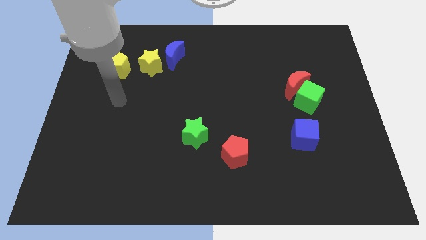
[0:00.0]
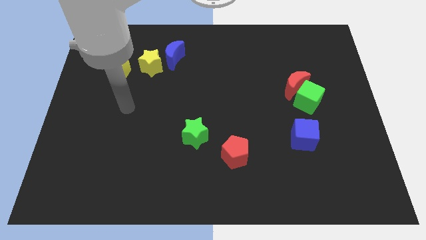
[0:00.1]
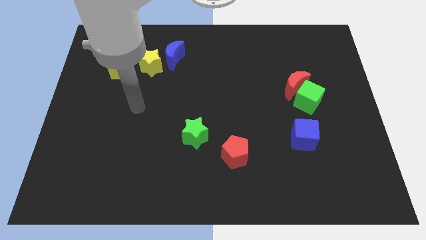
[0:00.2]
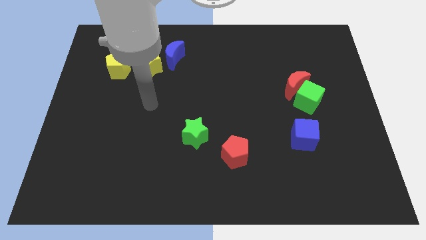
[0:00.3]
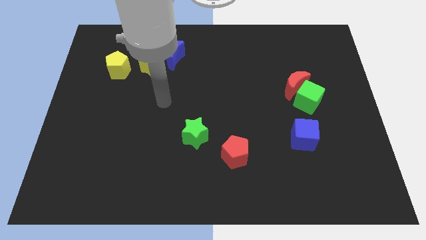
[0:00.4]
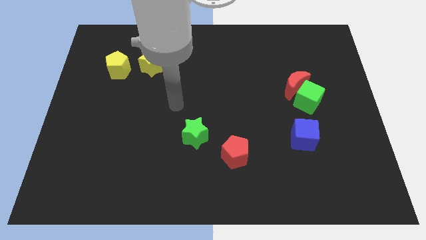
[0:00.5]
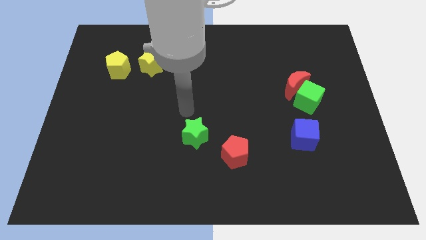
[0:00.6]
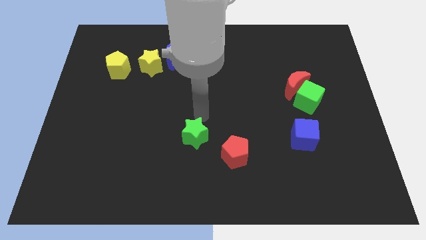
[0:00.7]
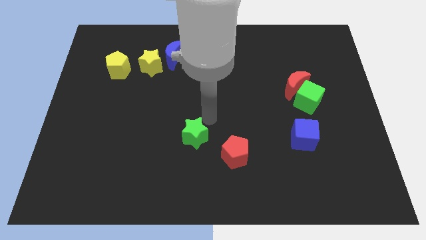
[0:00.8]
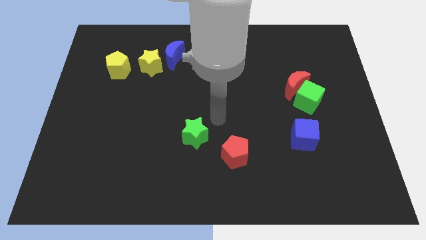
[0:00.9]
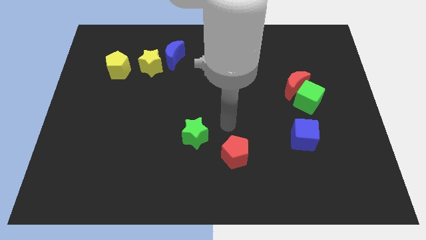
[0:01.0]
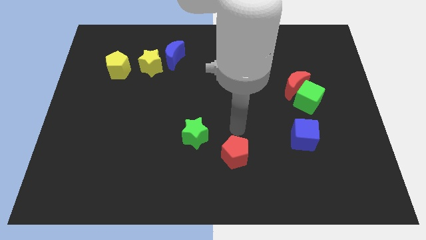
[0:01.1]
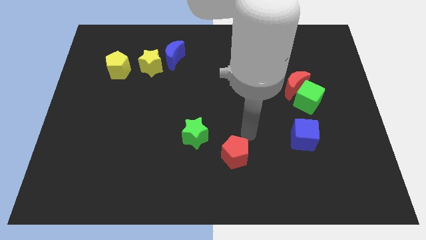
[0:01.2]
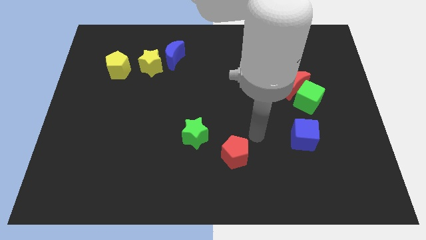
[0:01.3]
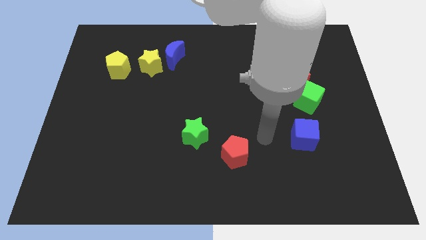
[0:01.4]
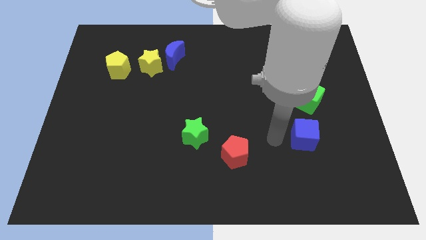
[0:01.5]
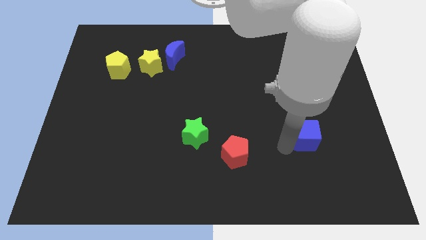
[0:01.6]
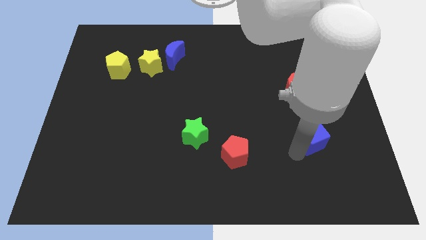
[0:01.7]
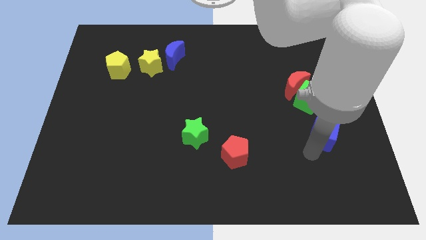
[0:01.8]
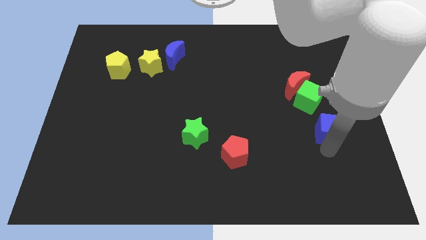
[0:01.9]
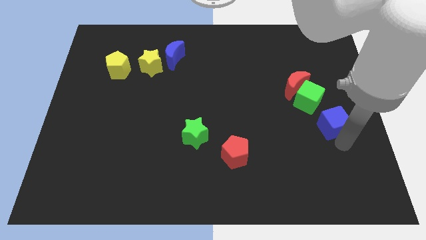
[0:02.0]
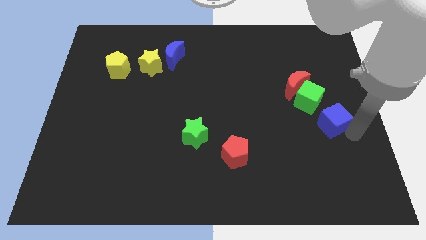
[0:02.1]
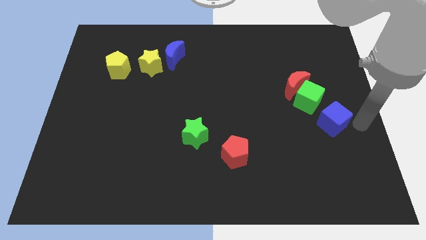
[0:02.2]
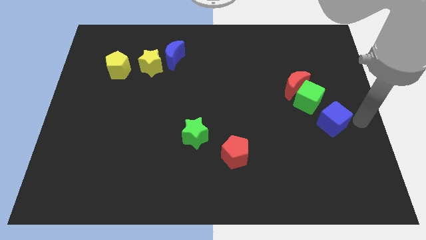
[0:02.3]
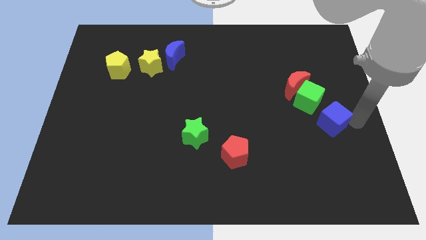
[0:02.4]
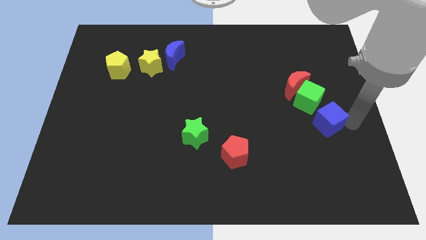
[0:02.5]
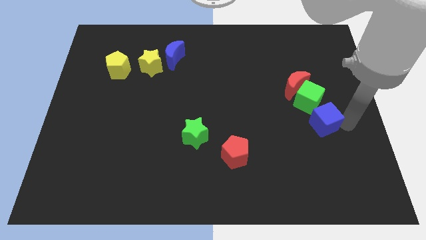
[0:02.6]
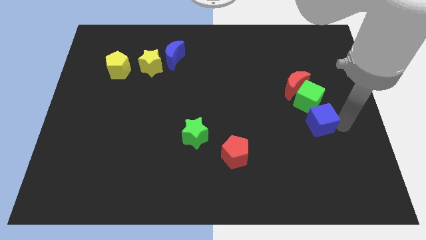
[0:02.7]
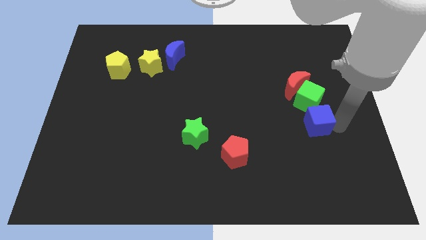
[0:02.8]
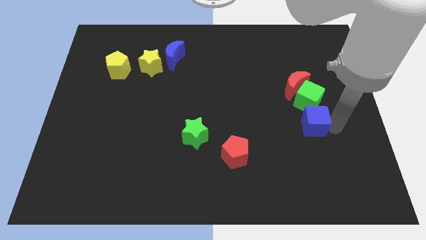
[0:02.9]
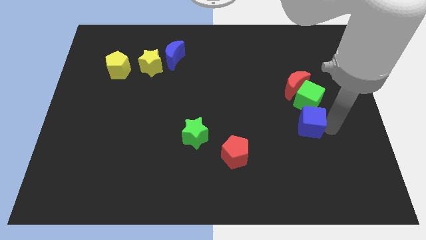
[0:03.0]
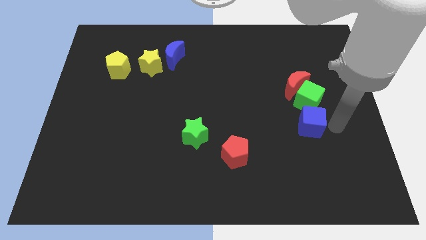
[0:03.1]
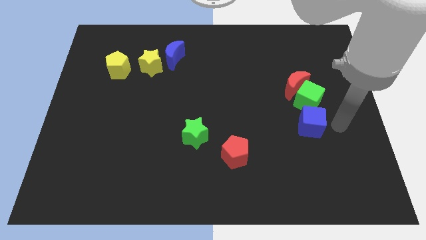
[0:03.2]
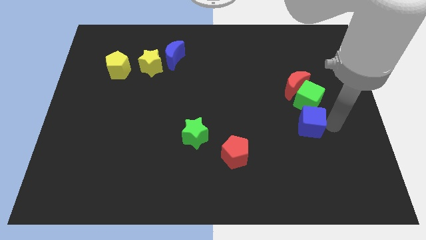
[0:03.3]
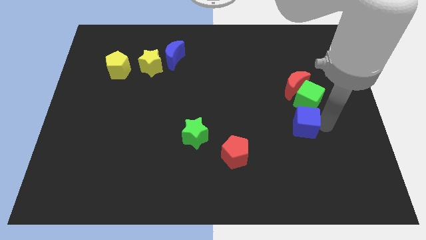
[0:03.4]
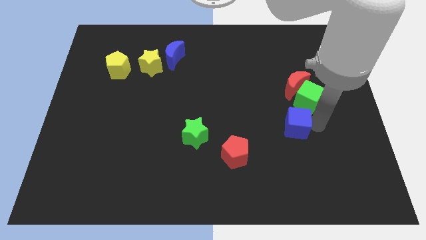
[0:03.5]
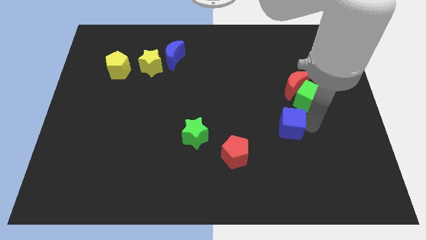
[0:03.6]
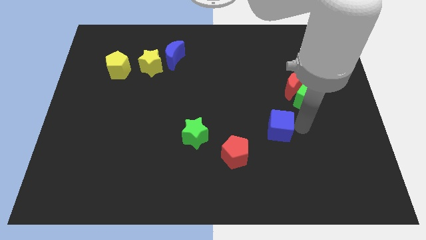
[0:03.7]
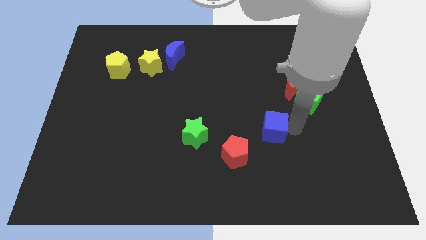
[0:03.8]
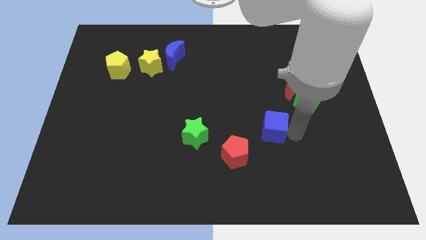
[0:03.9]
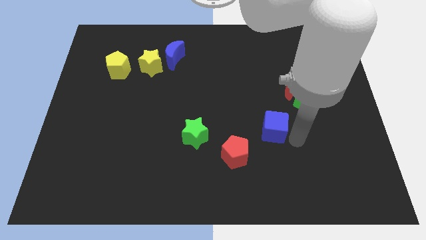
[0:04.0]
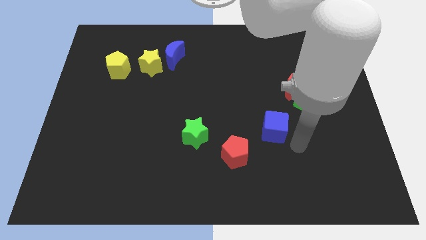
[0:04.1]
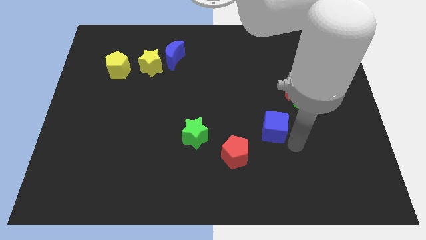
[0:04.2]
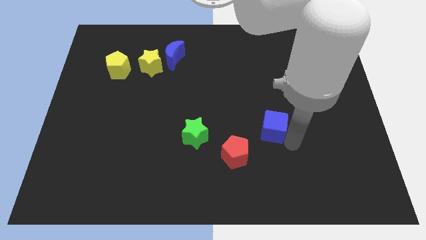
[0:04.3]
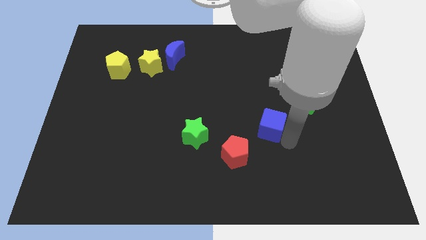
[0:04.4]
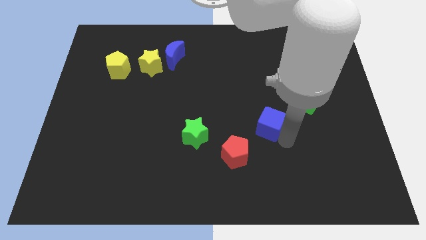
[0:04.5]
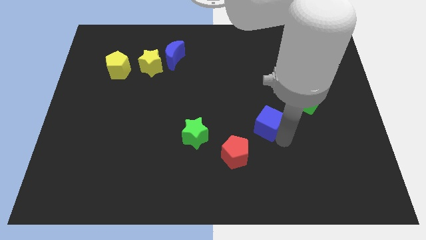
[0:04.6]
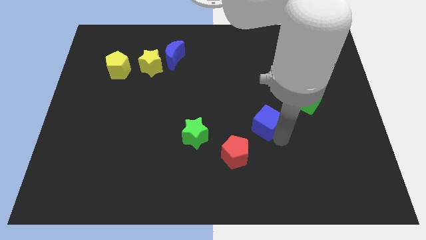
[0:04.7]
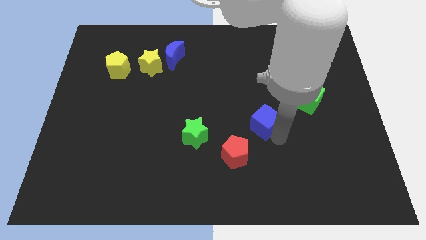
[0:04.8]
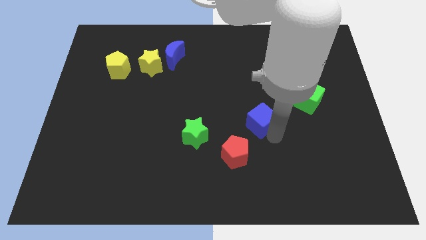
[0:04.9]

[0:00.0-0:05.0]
move the blue cube to the center

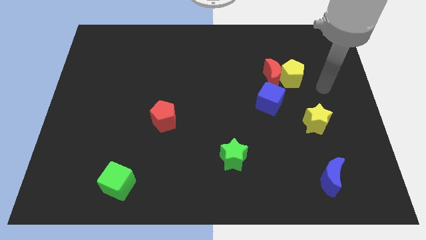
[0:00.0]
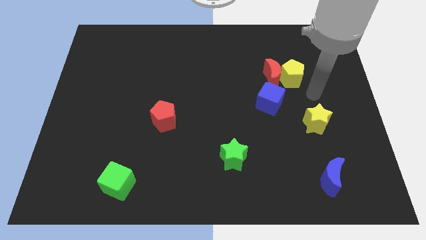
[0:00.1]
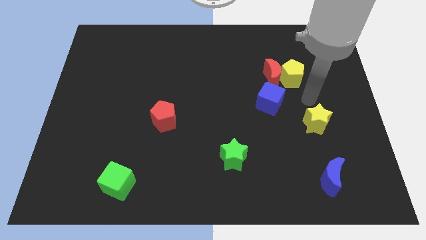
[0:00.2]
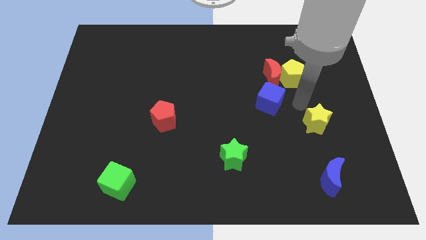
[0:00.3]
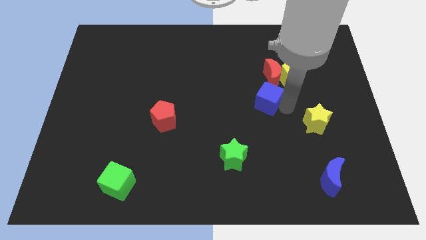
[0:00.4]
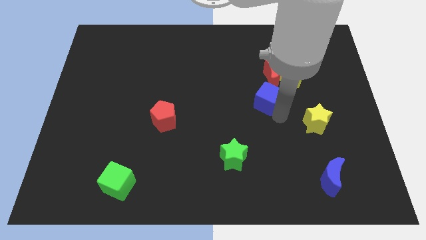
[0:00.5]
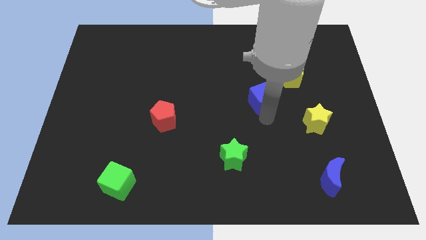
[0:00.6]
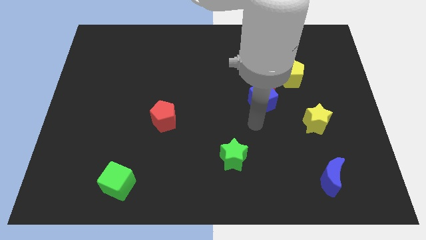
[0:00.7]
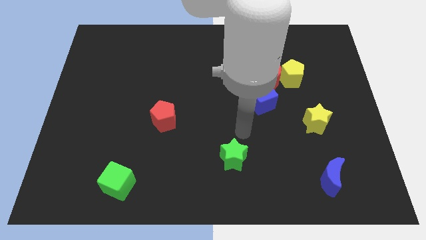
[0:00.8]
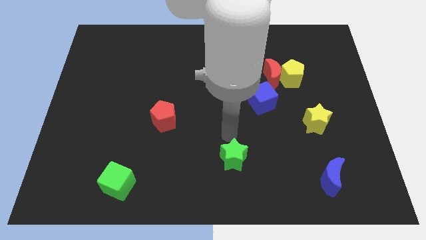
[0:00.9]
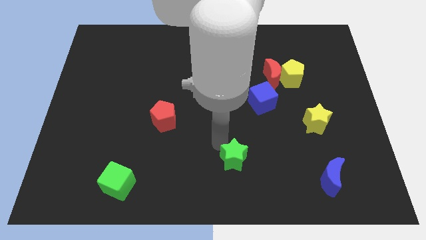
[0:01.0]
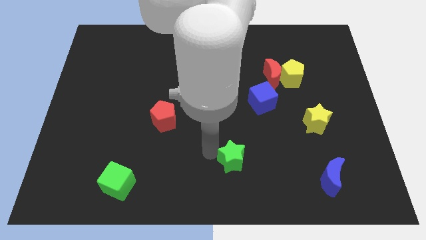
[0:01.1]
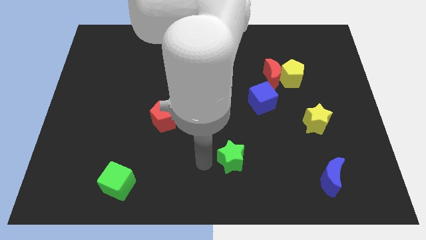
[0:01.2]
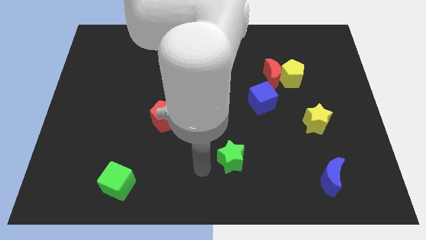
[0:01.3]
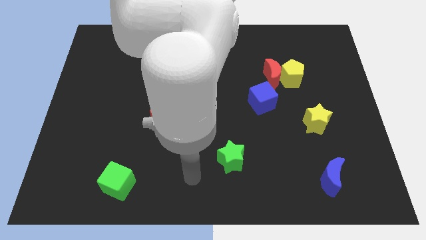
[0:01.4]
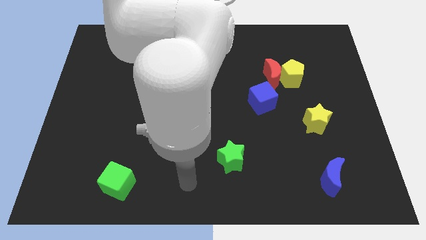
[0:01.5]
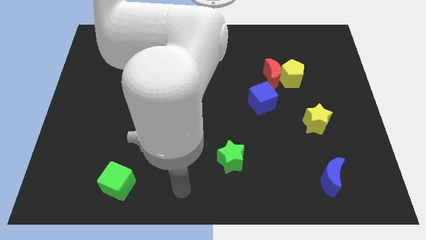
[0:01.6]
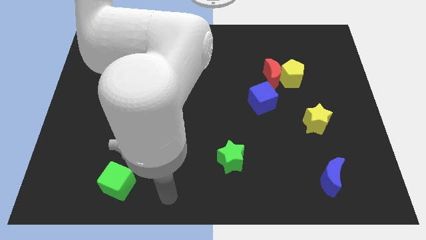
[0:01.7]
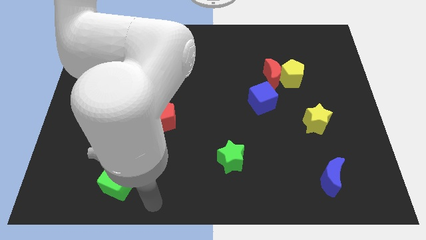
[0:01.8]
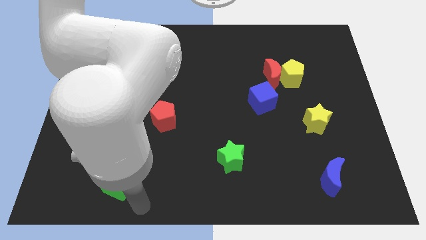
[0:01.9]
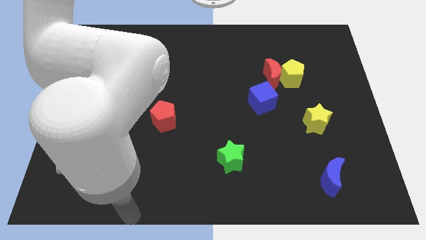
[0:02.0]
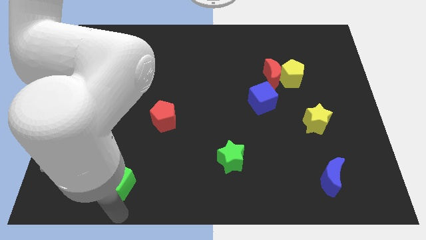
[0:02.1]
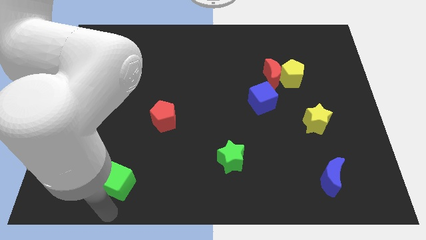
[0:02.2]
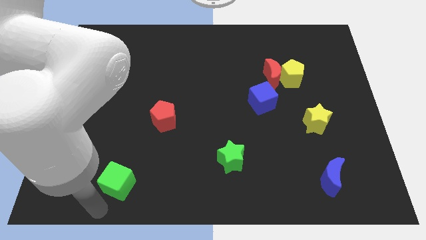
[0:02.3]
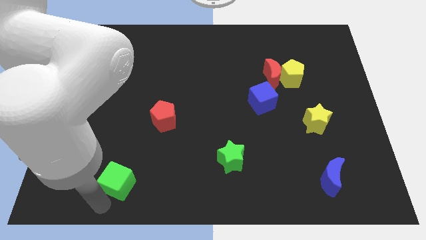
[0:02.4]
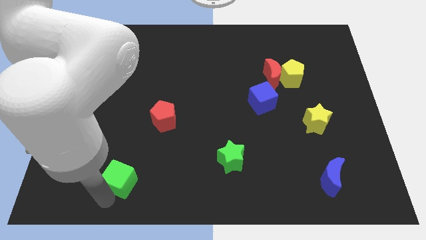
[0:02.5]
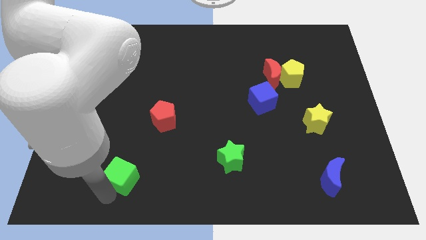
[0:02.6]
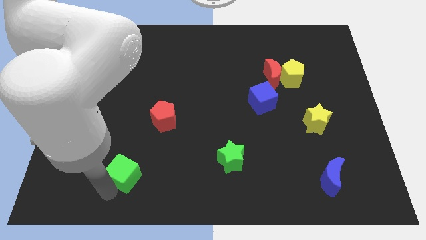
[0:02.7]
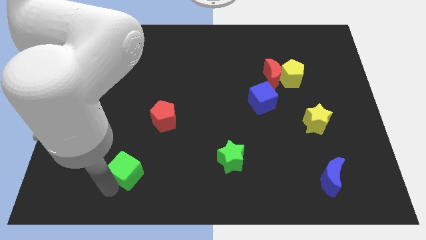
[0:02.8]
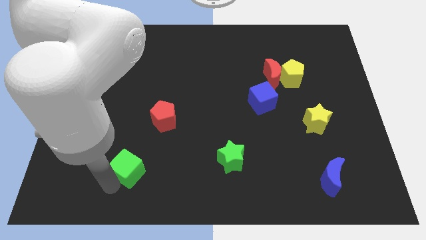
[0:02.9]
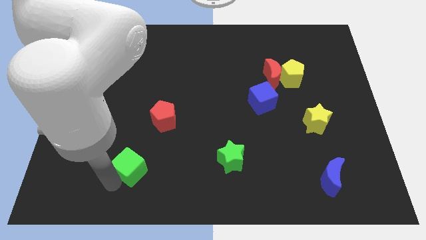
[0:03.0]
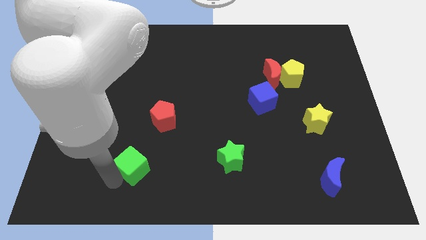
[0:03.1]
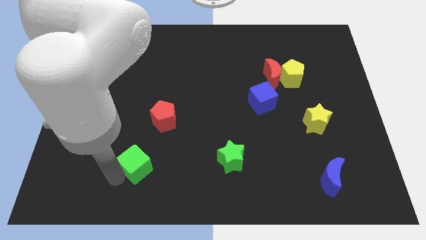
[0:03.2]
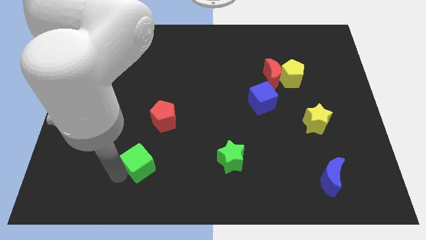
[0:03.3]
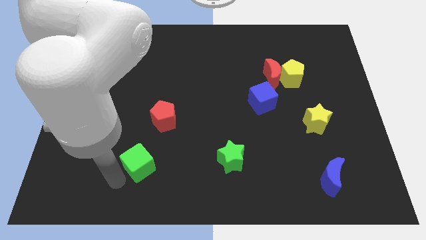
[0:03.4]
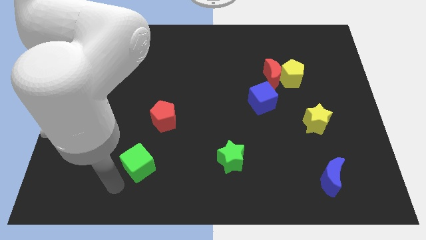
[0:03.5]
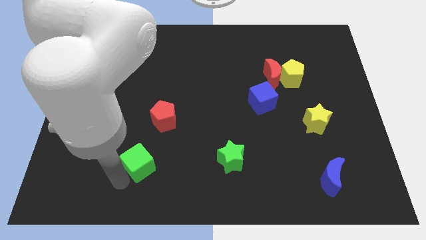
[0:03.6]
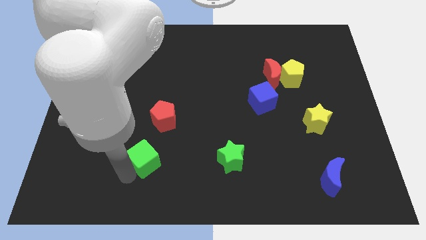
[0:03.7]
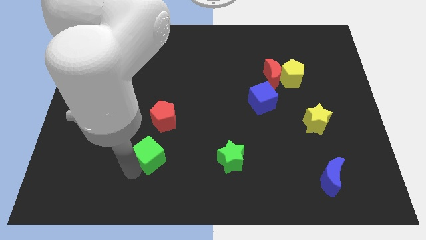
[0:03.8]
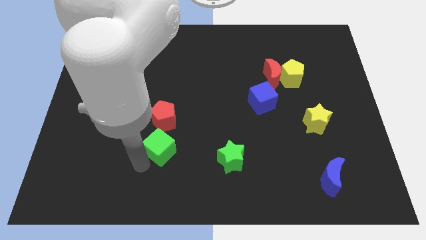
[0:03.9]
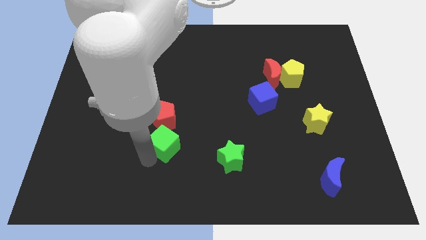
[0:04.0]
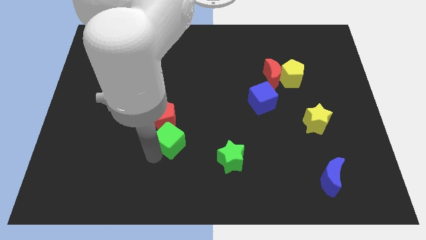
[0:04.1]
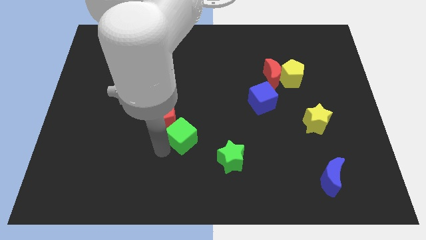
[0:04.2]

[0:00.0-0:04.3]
move the green cube to the middle
